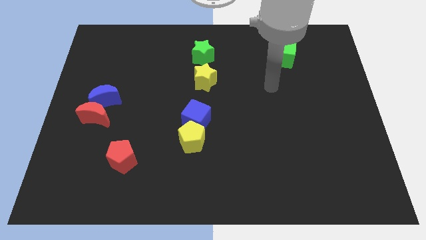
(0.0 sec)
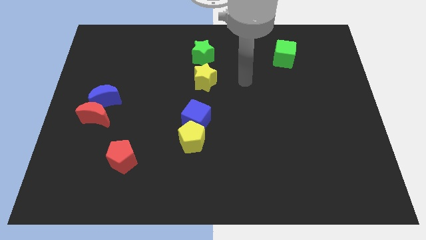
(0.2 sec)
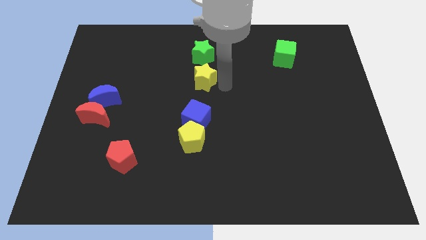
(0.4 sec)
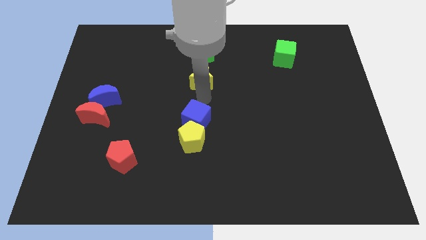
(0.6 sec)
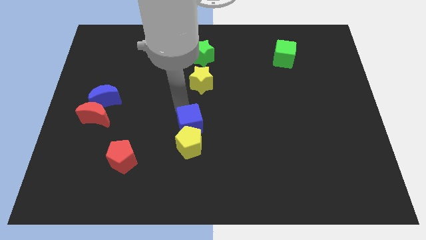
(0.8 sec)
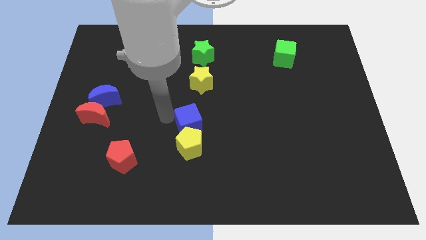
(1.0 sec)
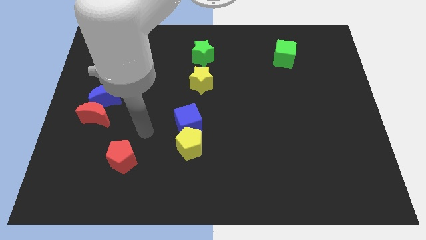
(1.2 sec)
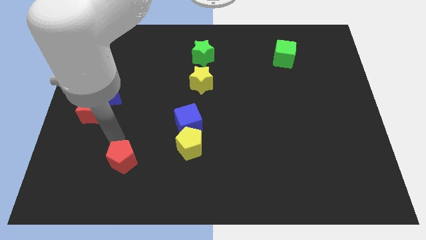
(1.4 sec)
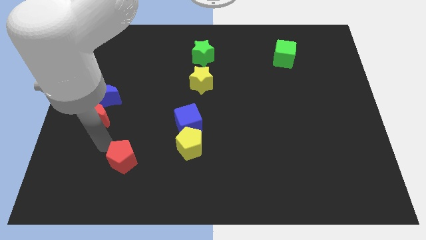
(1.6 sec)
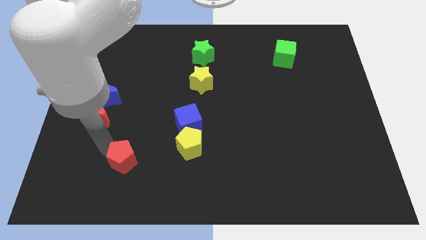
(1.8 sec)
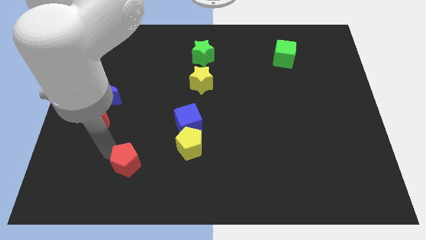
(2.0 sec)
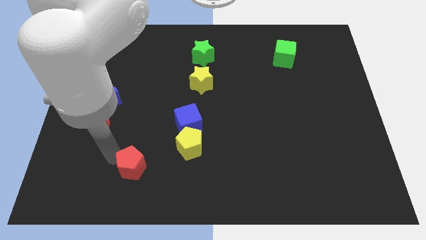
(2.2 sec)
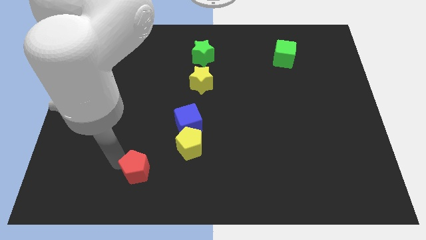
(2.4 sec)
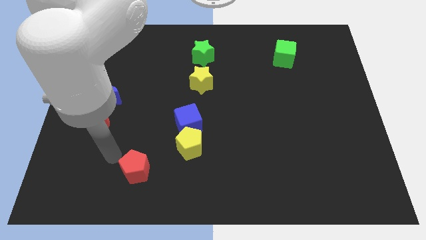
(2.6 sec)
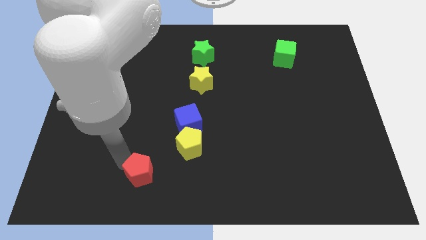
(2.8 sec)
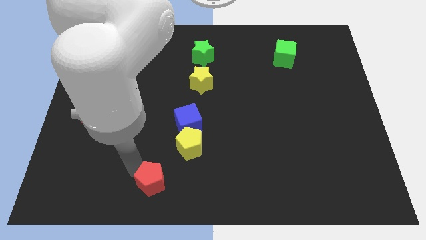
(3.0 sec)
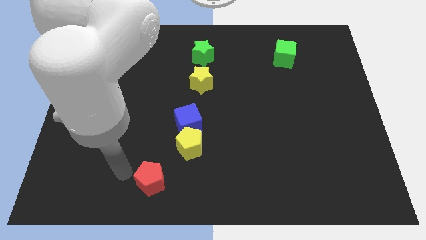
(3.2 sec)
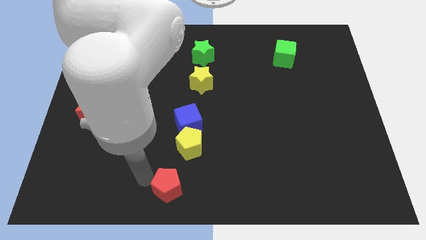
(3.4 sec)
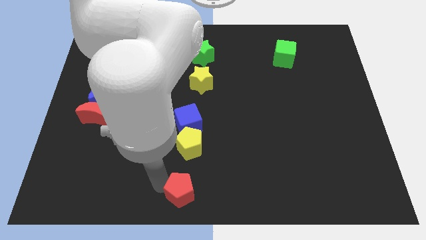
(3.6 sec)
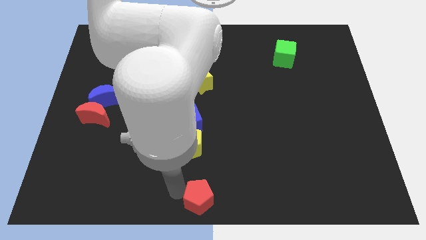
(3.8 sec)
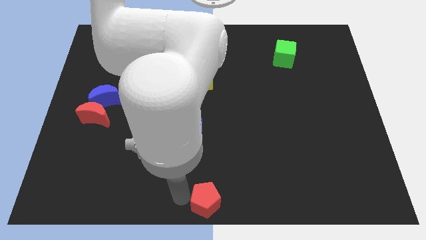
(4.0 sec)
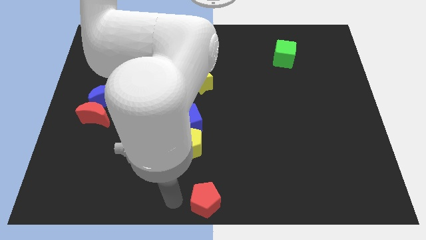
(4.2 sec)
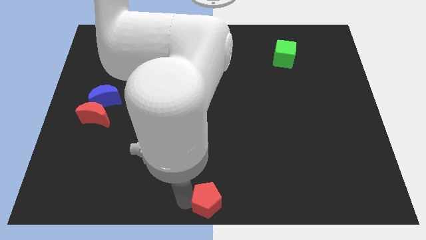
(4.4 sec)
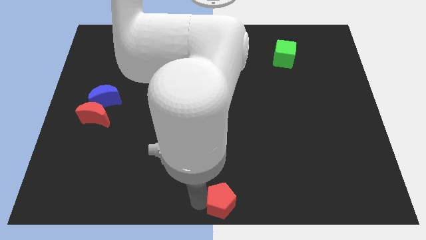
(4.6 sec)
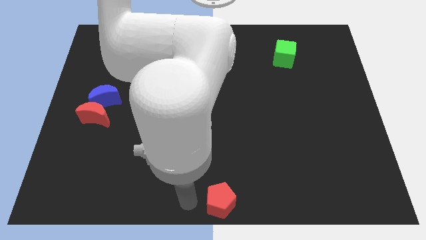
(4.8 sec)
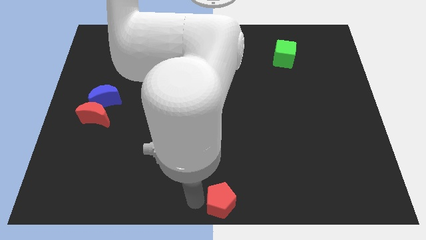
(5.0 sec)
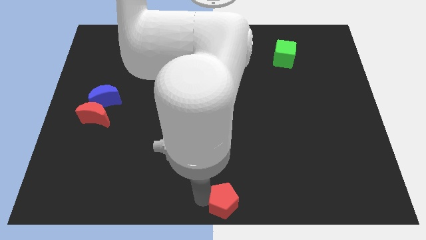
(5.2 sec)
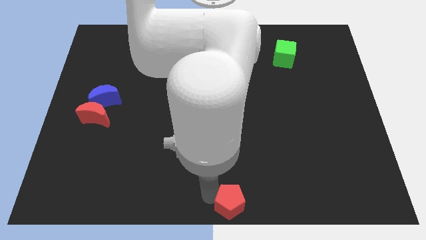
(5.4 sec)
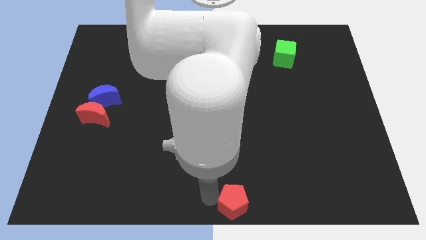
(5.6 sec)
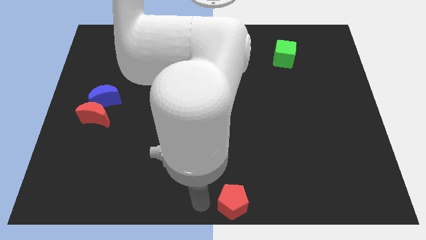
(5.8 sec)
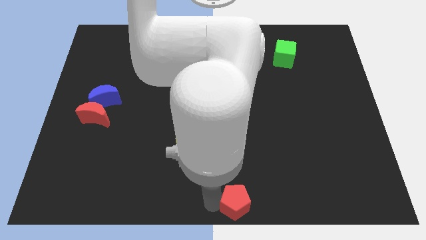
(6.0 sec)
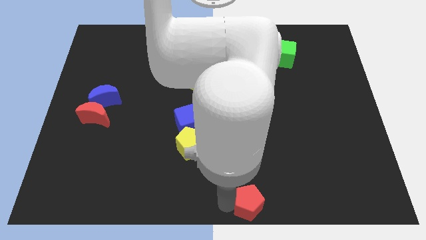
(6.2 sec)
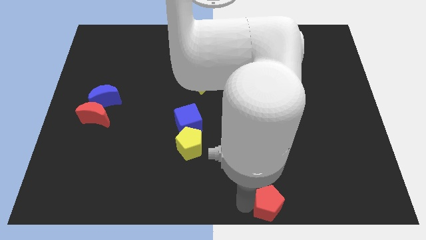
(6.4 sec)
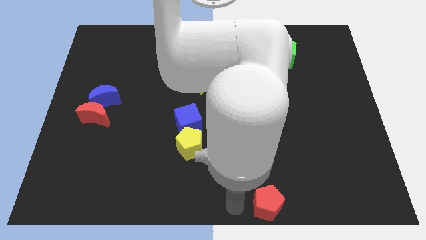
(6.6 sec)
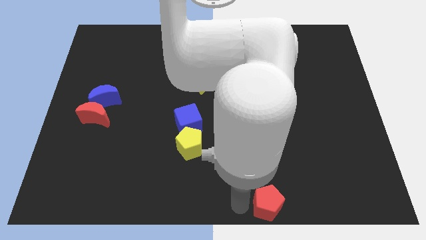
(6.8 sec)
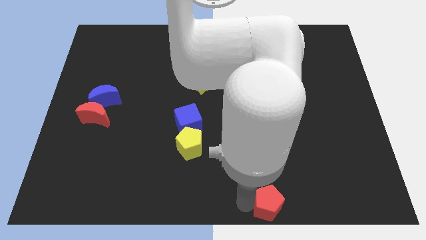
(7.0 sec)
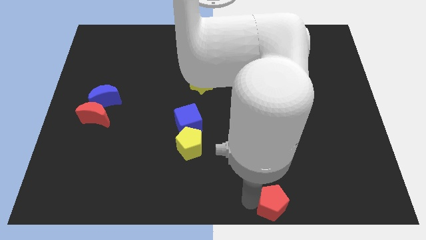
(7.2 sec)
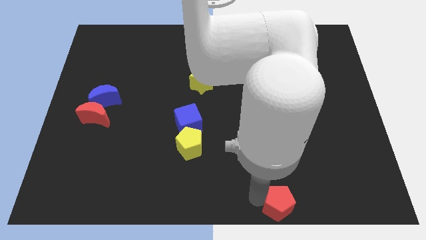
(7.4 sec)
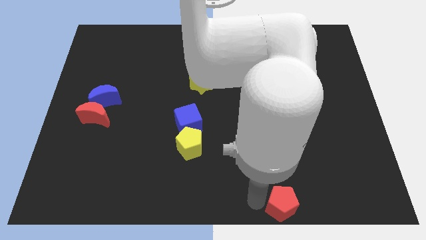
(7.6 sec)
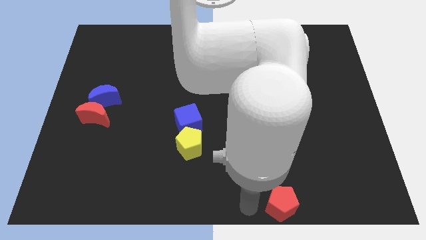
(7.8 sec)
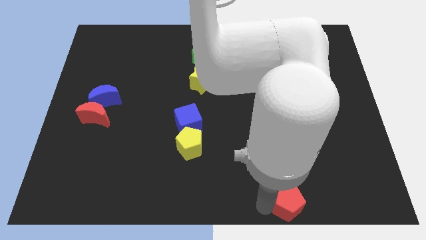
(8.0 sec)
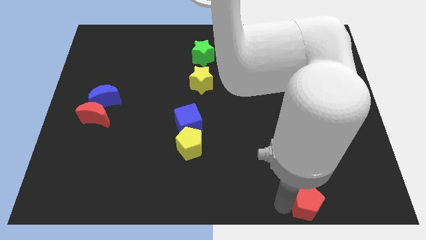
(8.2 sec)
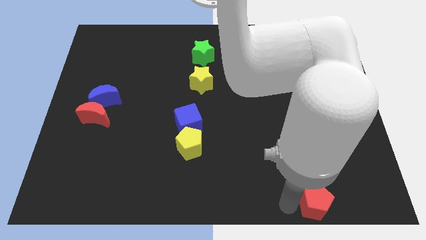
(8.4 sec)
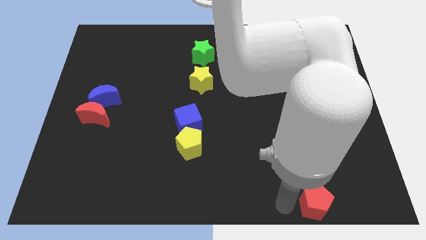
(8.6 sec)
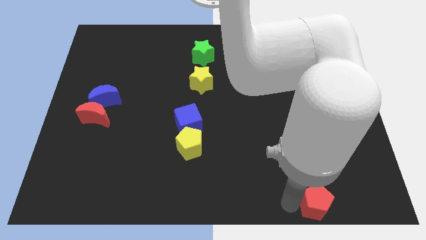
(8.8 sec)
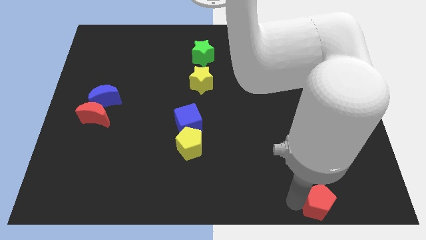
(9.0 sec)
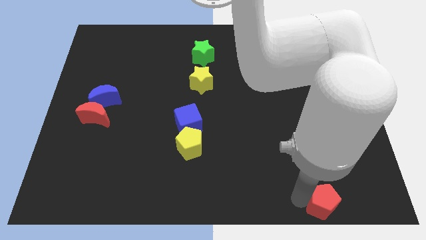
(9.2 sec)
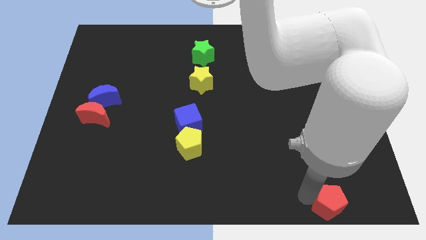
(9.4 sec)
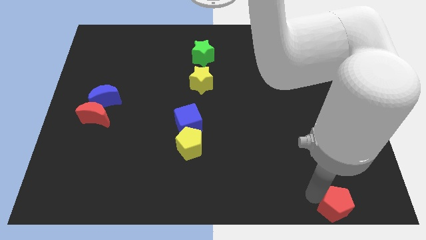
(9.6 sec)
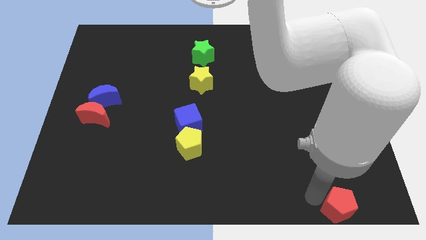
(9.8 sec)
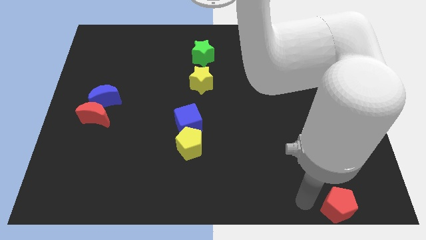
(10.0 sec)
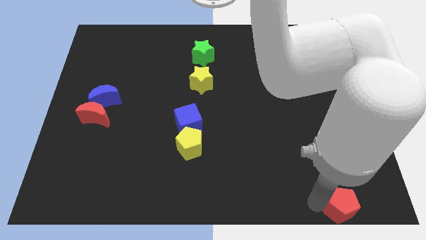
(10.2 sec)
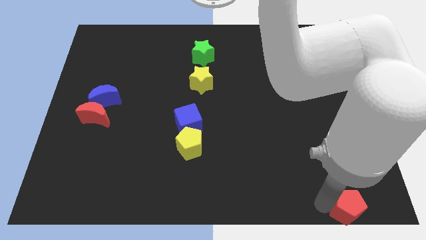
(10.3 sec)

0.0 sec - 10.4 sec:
put the red pentagon to the bottom right of the board

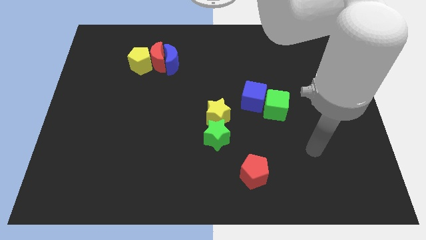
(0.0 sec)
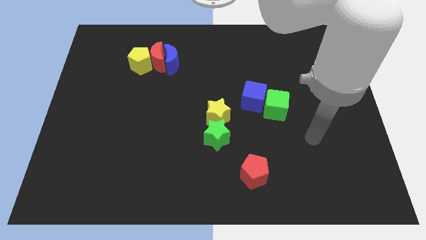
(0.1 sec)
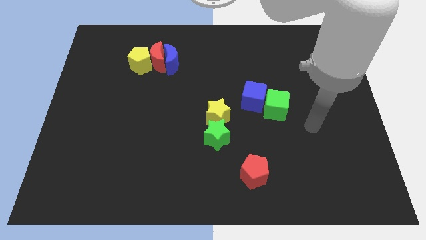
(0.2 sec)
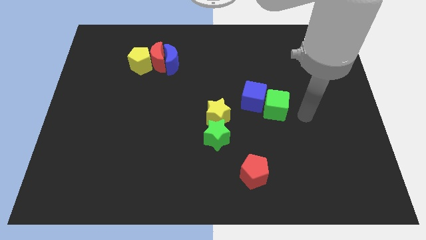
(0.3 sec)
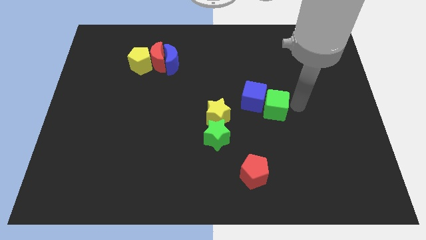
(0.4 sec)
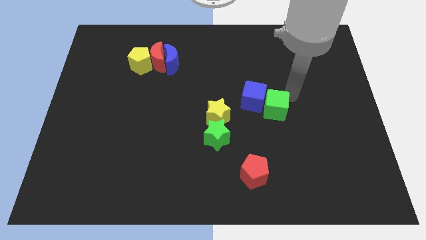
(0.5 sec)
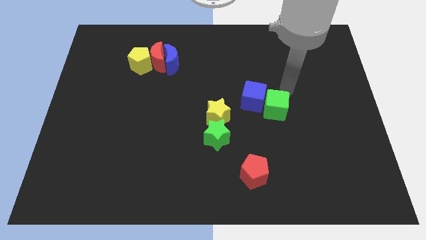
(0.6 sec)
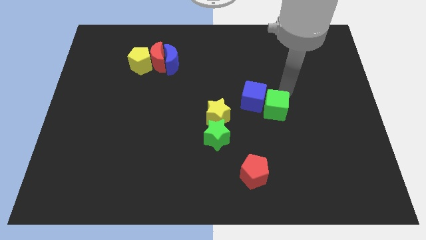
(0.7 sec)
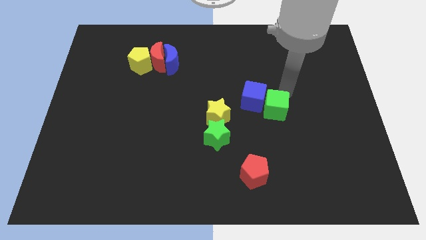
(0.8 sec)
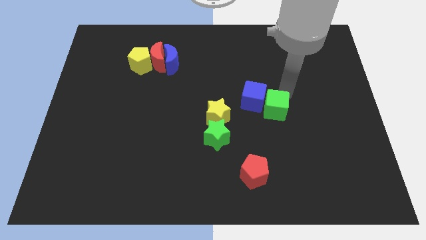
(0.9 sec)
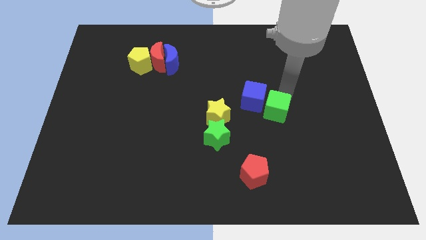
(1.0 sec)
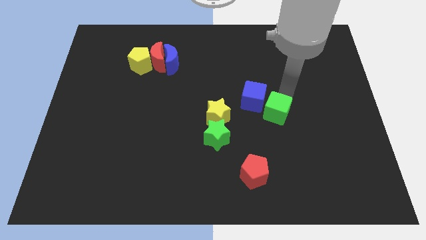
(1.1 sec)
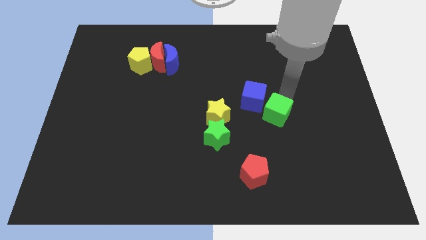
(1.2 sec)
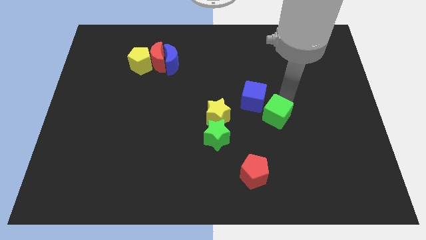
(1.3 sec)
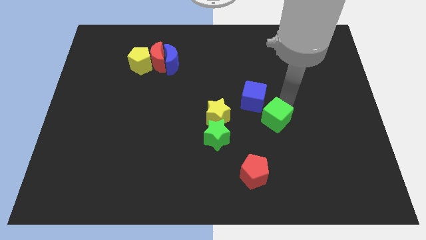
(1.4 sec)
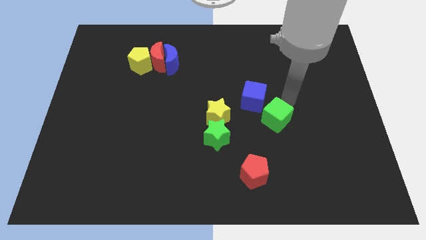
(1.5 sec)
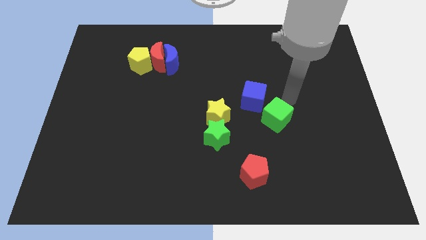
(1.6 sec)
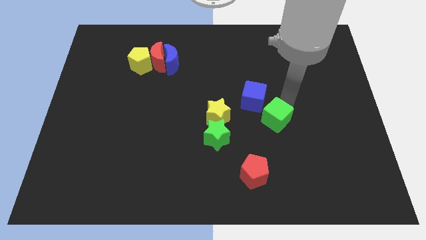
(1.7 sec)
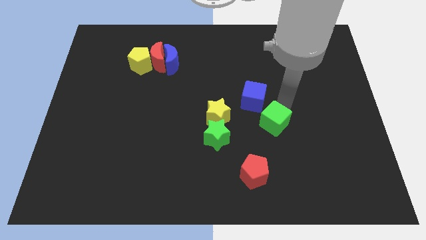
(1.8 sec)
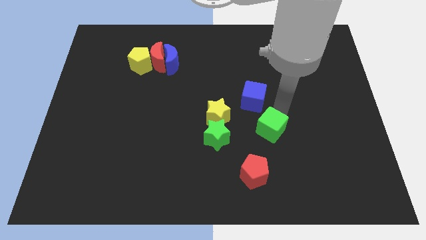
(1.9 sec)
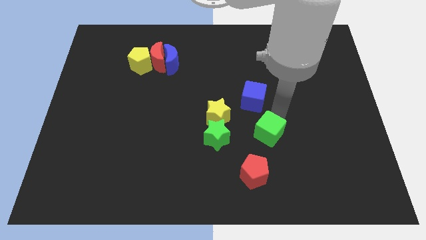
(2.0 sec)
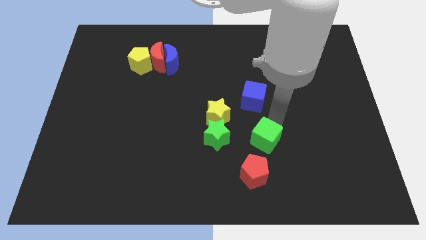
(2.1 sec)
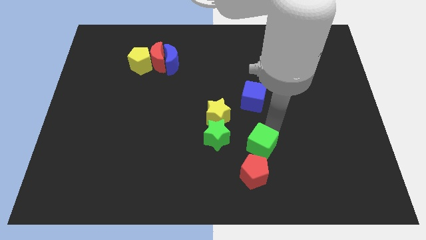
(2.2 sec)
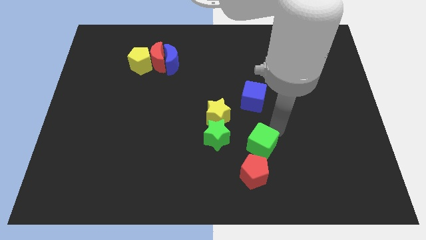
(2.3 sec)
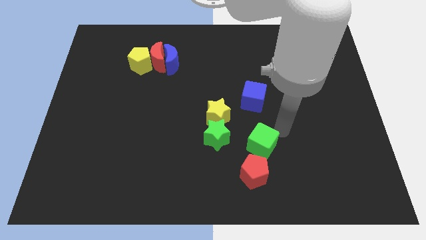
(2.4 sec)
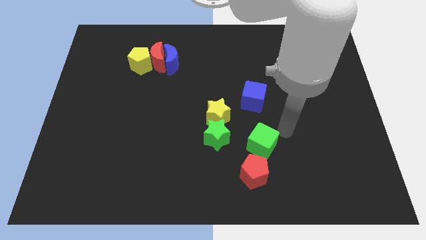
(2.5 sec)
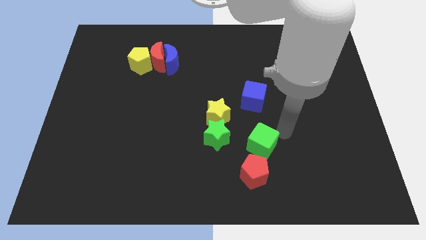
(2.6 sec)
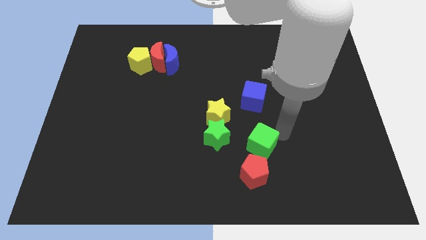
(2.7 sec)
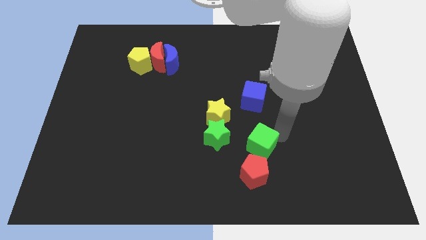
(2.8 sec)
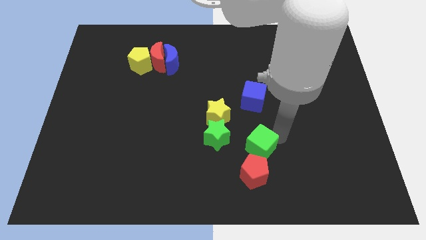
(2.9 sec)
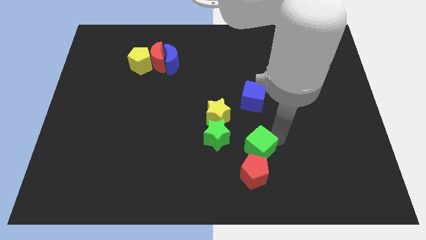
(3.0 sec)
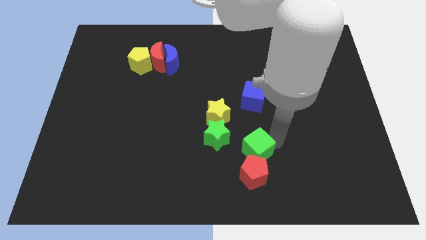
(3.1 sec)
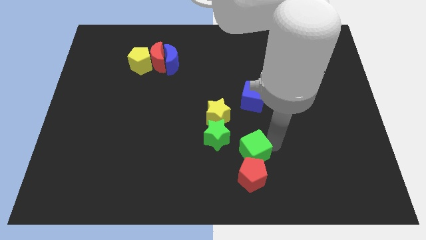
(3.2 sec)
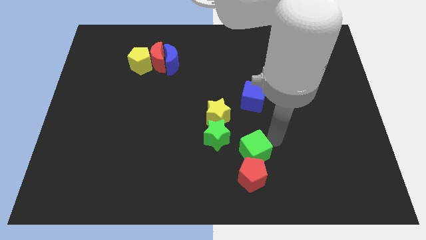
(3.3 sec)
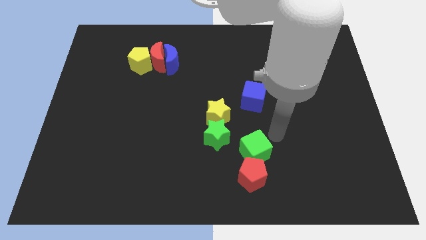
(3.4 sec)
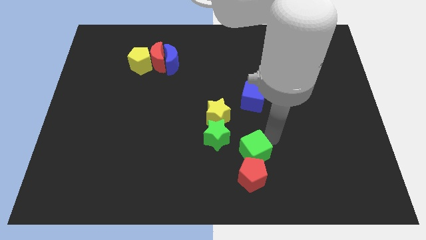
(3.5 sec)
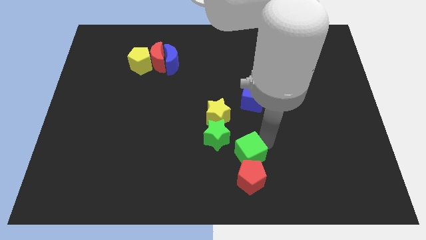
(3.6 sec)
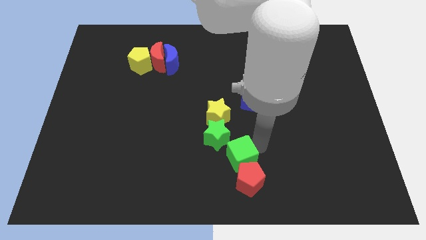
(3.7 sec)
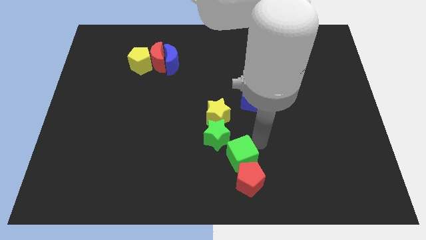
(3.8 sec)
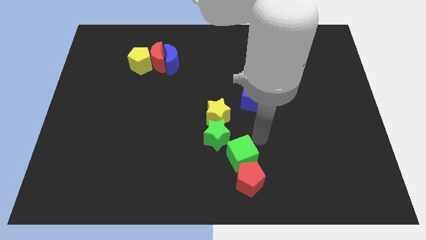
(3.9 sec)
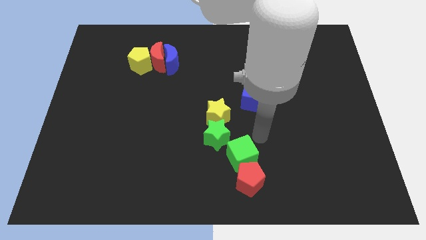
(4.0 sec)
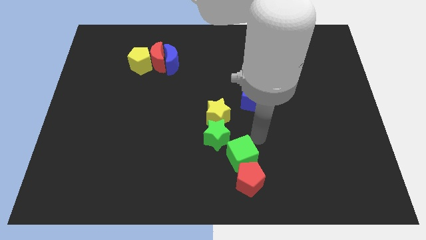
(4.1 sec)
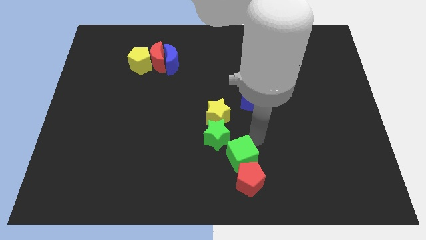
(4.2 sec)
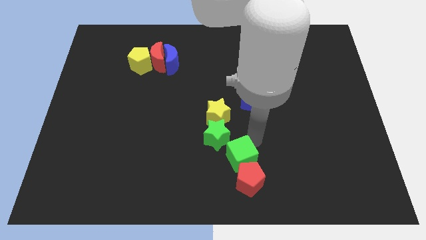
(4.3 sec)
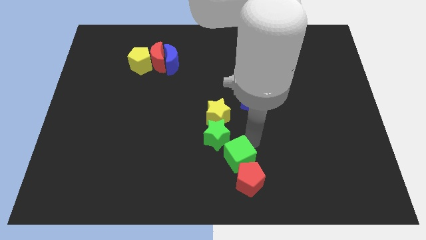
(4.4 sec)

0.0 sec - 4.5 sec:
push the green cube to the bottom
